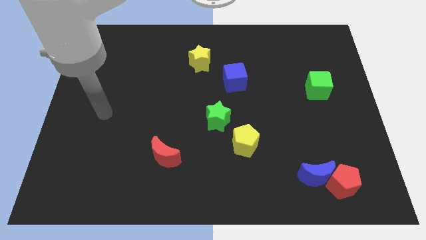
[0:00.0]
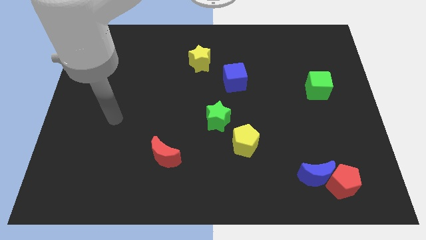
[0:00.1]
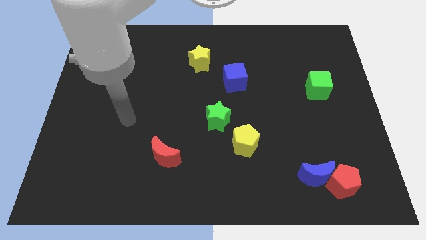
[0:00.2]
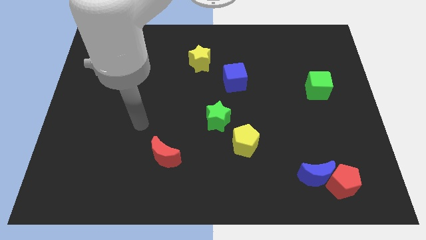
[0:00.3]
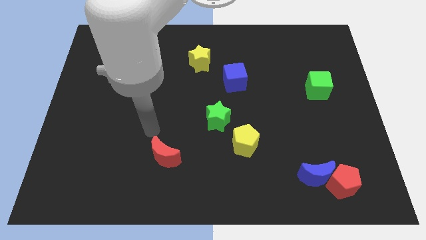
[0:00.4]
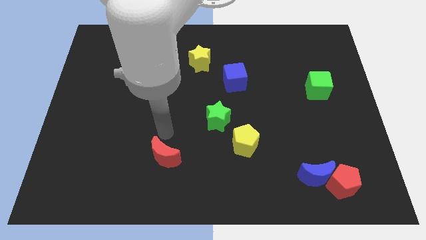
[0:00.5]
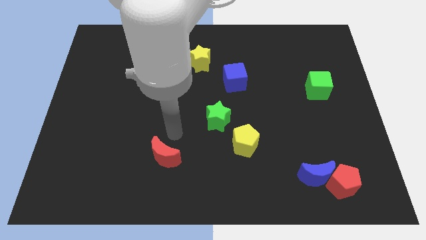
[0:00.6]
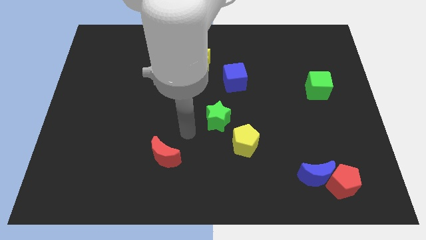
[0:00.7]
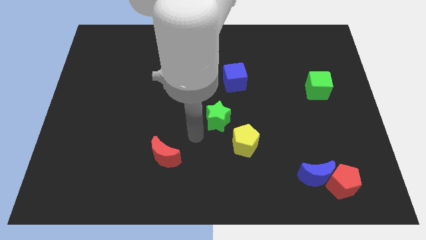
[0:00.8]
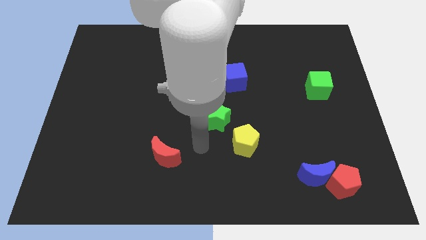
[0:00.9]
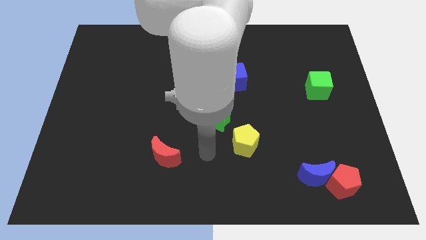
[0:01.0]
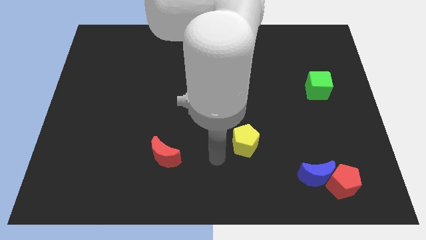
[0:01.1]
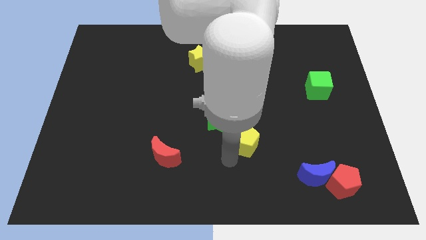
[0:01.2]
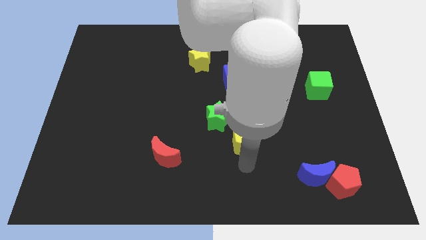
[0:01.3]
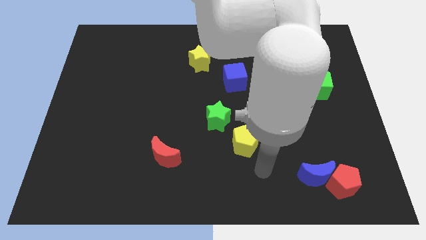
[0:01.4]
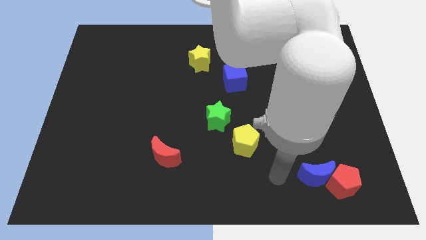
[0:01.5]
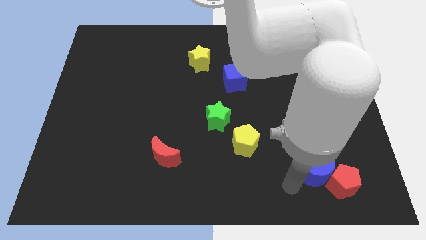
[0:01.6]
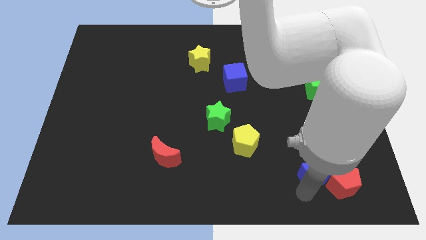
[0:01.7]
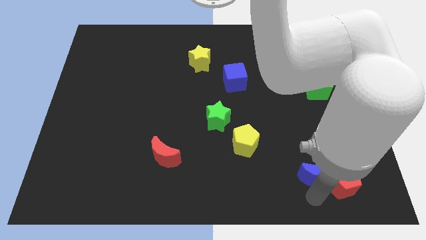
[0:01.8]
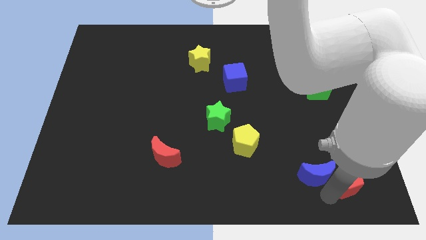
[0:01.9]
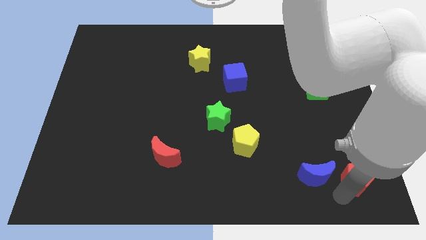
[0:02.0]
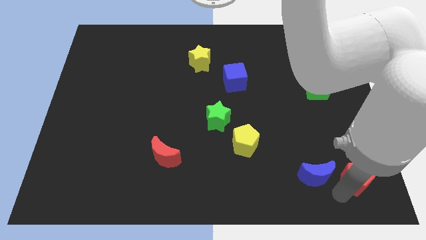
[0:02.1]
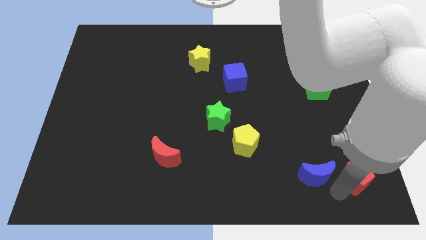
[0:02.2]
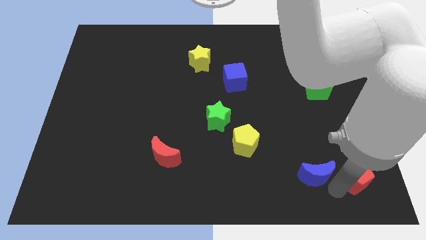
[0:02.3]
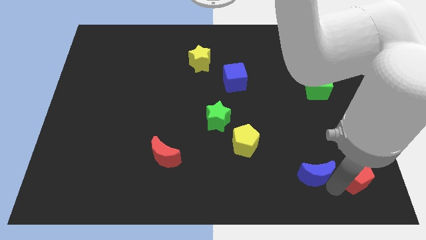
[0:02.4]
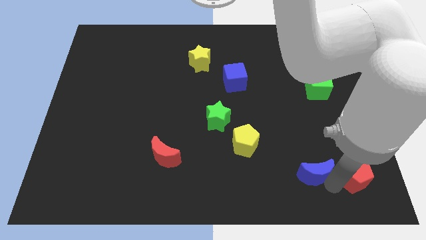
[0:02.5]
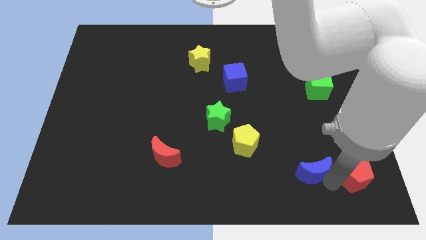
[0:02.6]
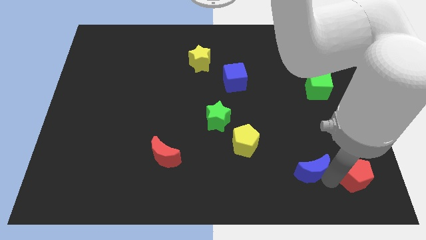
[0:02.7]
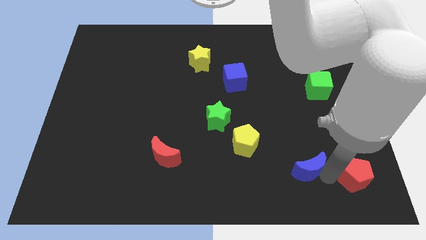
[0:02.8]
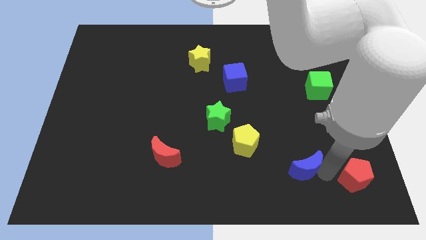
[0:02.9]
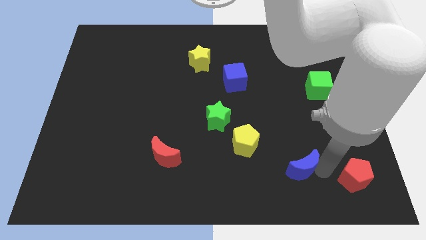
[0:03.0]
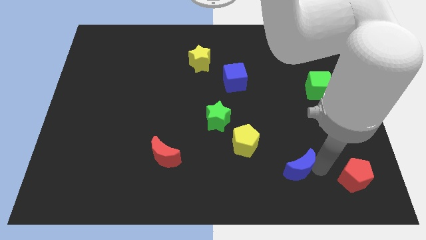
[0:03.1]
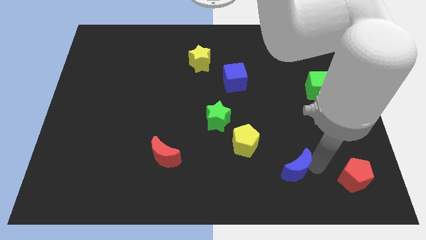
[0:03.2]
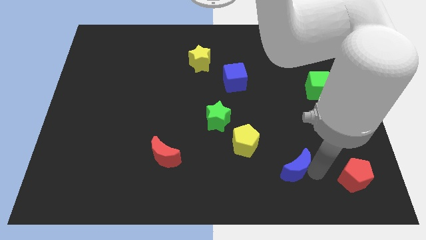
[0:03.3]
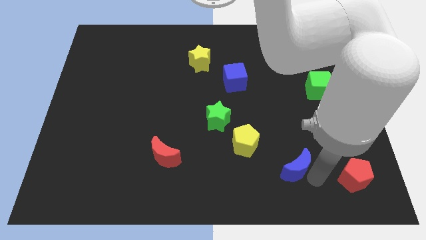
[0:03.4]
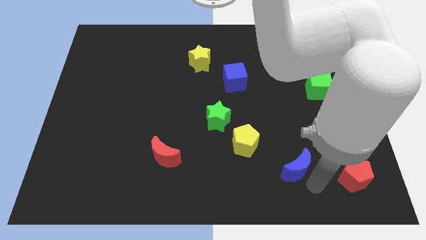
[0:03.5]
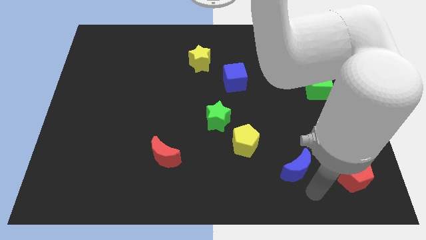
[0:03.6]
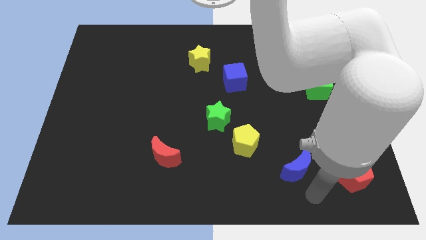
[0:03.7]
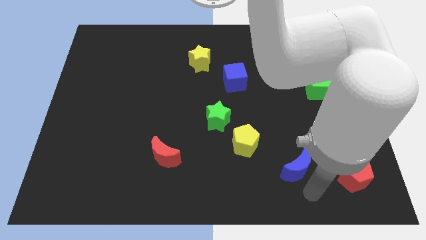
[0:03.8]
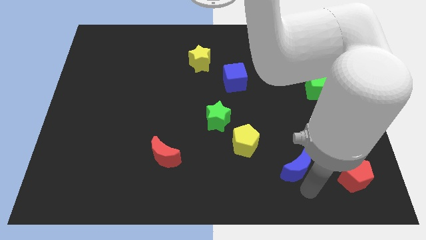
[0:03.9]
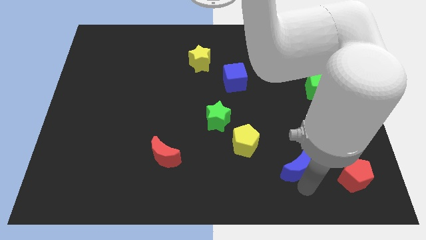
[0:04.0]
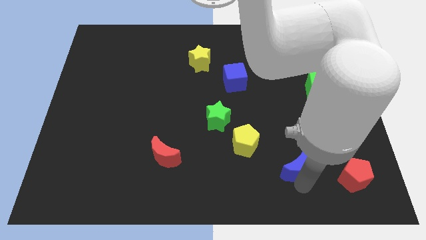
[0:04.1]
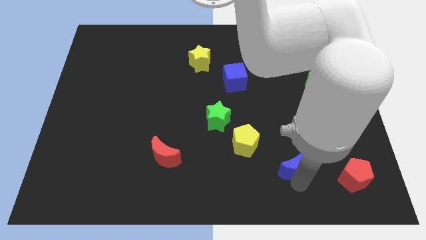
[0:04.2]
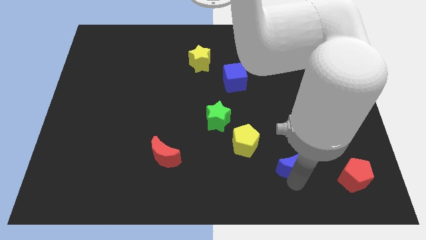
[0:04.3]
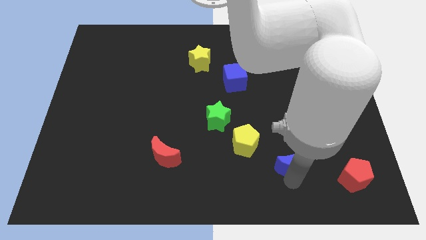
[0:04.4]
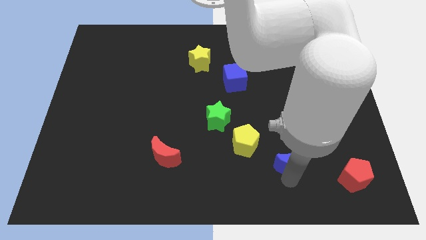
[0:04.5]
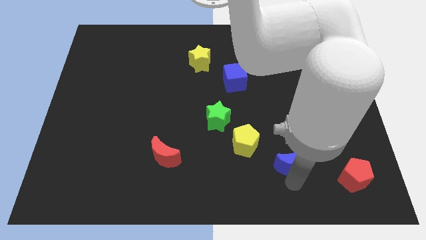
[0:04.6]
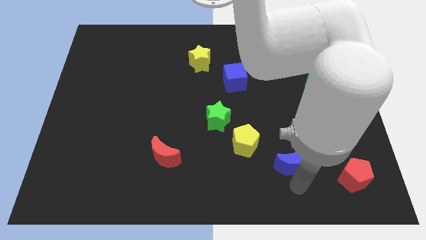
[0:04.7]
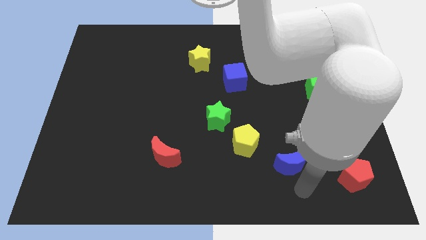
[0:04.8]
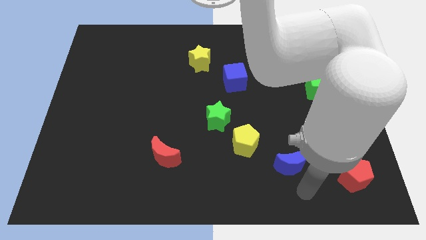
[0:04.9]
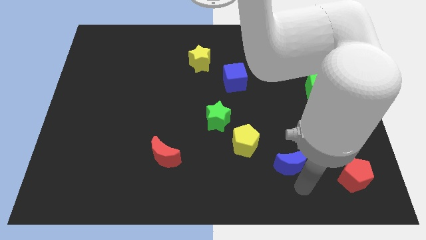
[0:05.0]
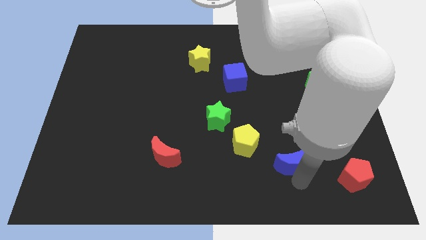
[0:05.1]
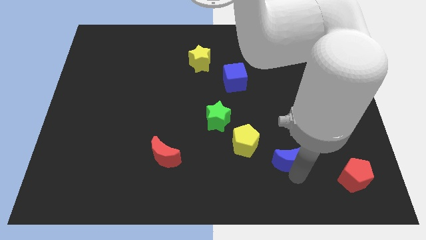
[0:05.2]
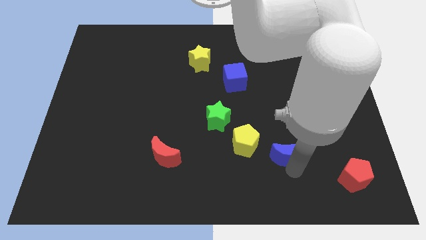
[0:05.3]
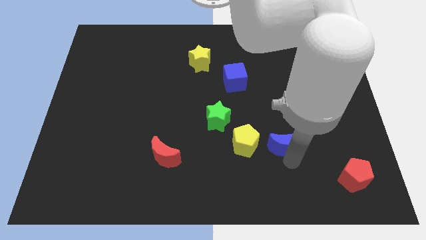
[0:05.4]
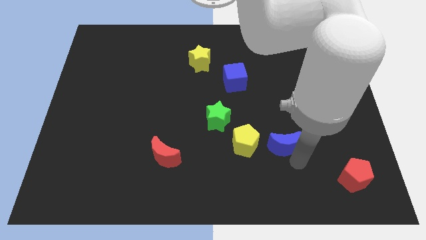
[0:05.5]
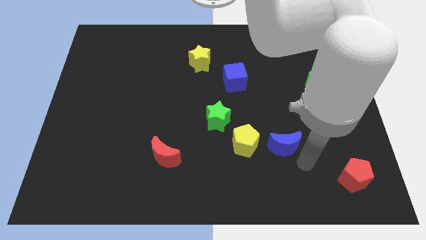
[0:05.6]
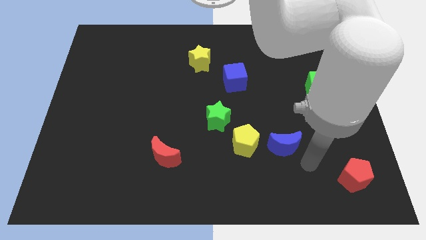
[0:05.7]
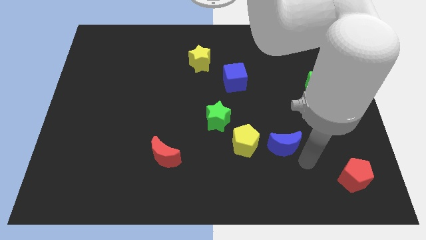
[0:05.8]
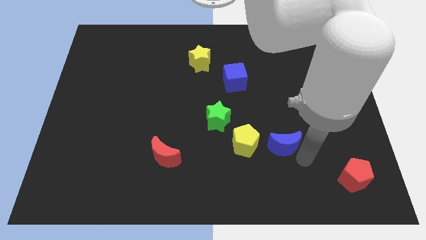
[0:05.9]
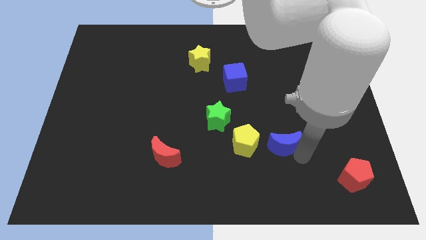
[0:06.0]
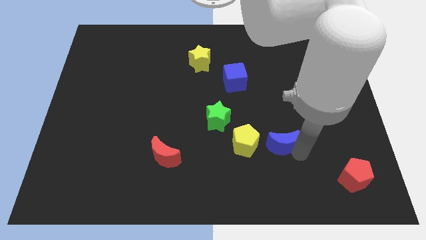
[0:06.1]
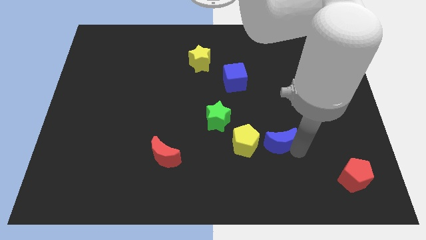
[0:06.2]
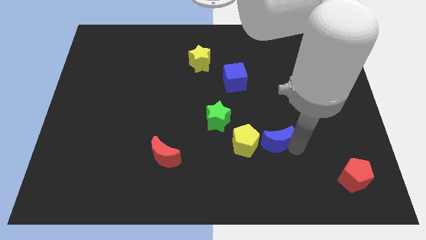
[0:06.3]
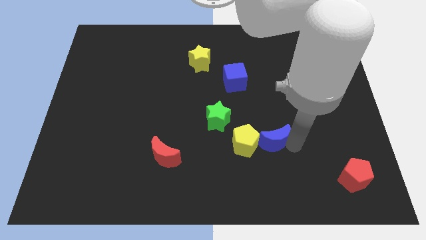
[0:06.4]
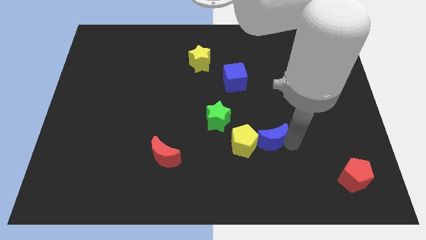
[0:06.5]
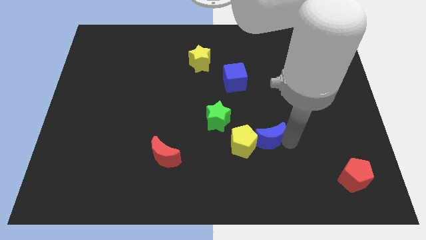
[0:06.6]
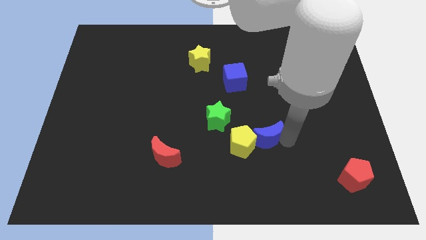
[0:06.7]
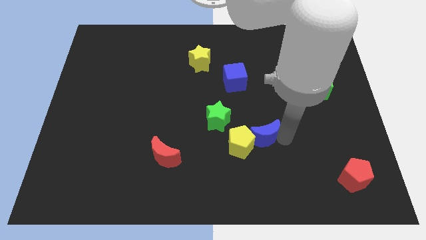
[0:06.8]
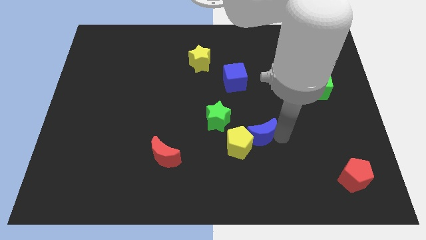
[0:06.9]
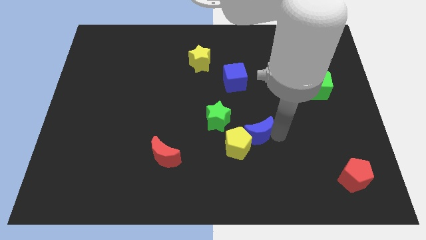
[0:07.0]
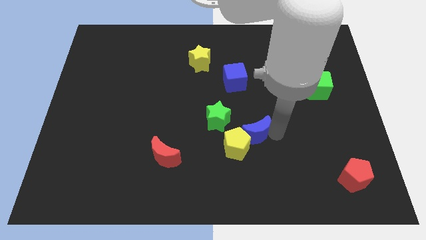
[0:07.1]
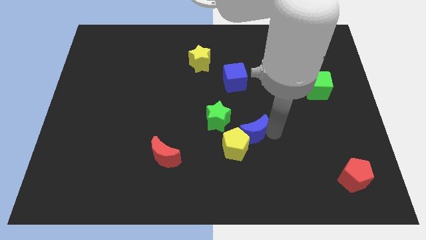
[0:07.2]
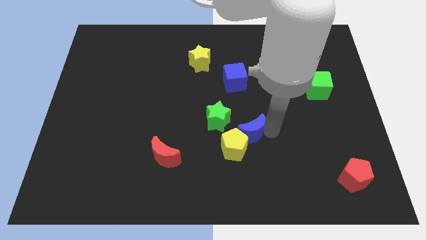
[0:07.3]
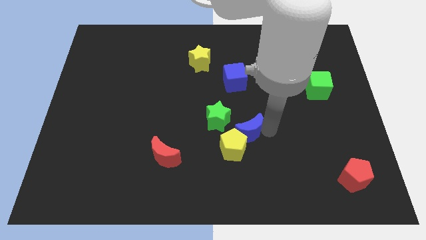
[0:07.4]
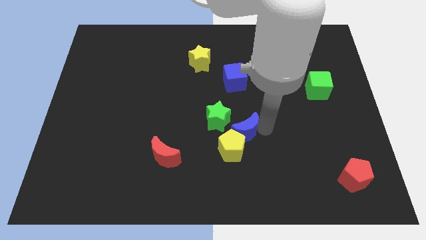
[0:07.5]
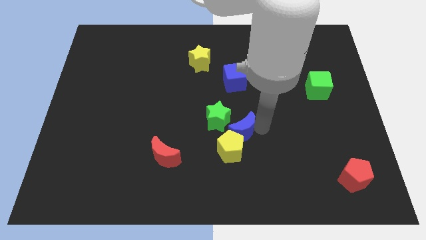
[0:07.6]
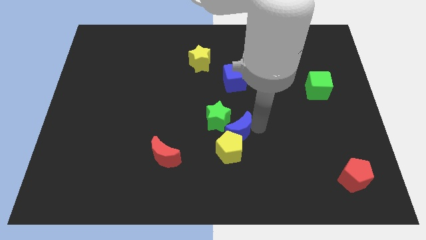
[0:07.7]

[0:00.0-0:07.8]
put the blue moon towards the green star
